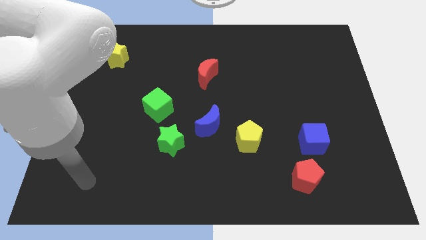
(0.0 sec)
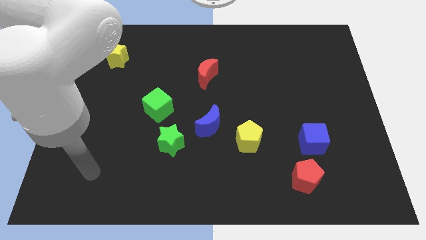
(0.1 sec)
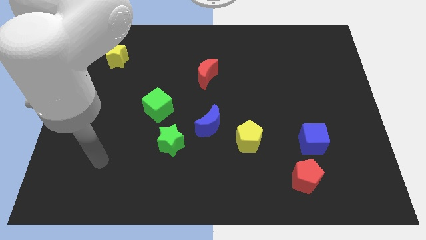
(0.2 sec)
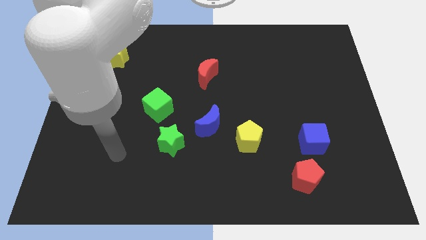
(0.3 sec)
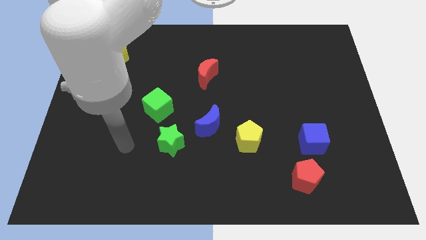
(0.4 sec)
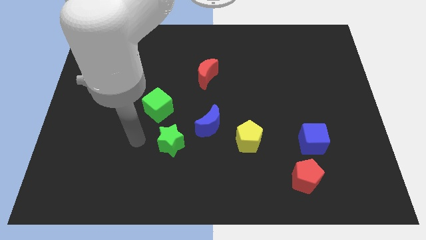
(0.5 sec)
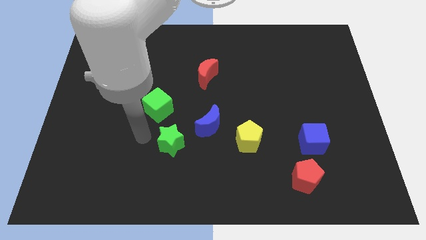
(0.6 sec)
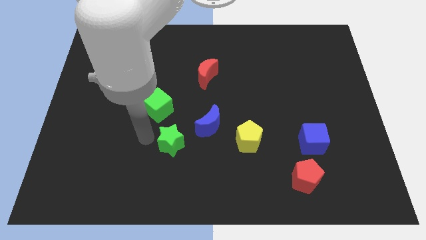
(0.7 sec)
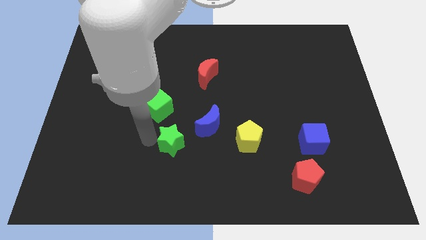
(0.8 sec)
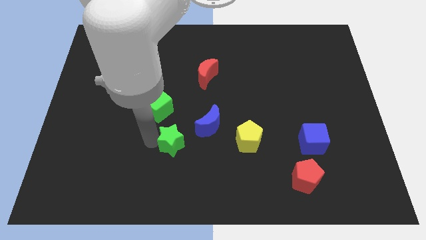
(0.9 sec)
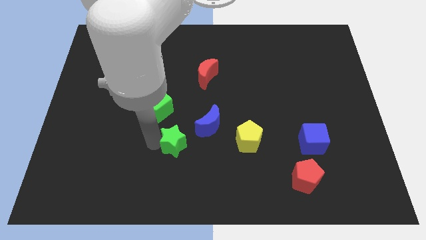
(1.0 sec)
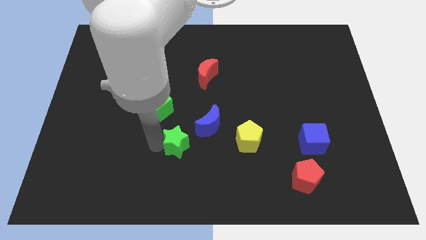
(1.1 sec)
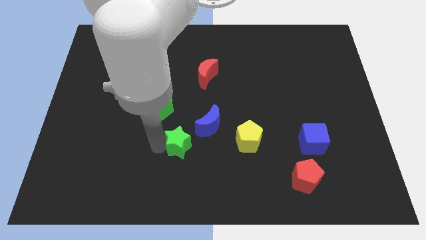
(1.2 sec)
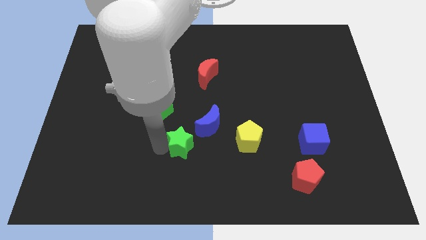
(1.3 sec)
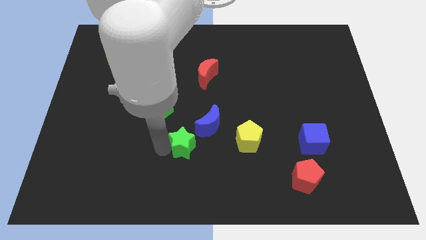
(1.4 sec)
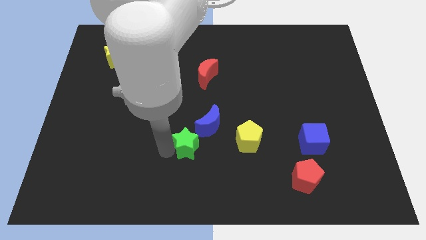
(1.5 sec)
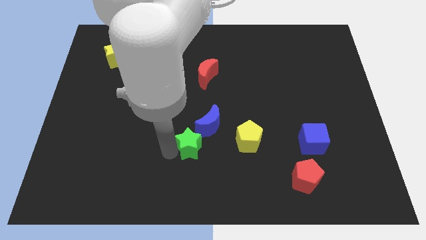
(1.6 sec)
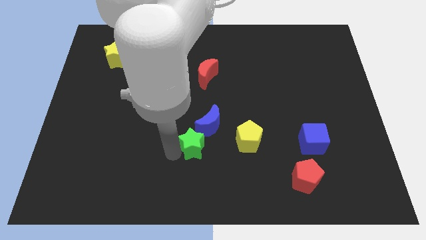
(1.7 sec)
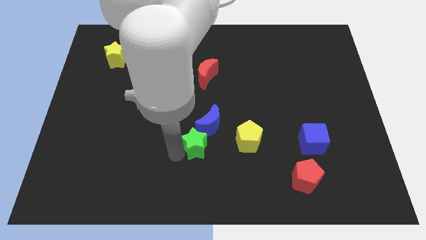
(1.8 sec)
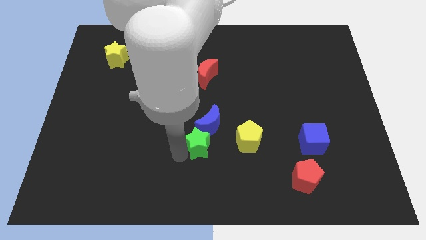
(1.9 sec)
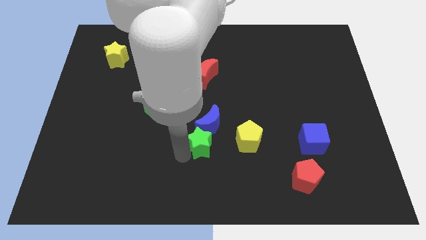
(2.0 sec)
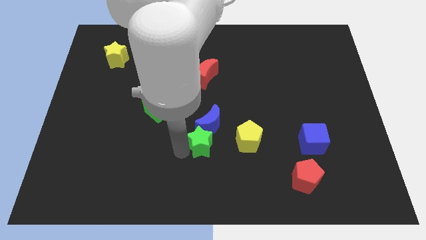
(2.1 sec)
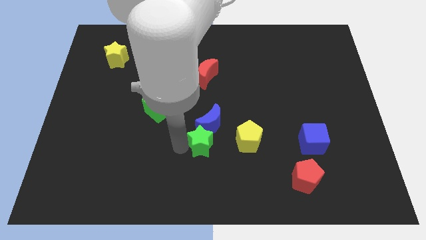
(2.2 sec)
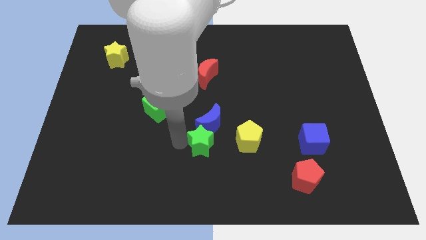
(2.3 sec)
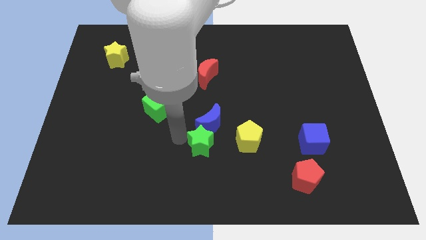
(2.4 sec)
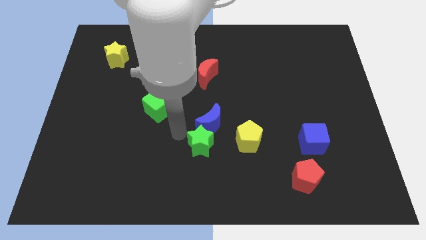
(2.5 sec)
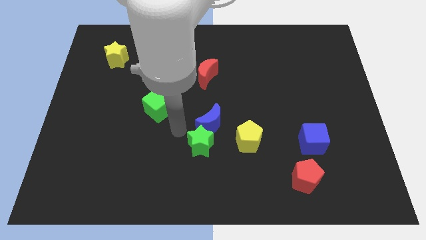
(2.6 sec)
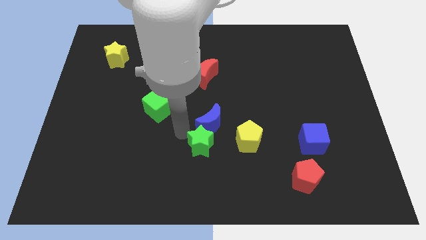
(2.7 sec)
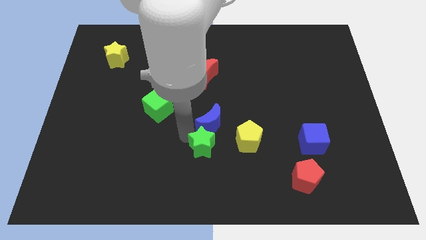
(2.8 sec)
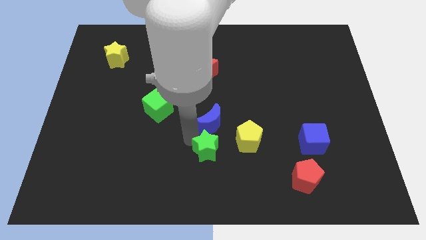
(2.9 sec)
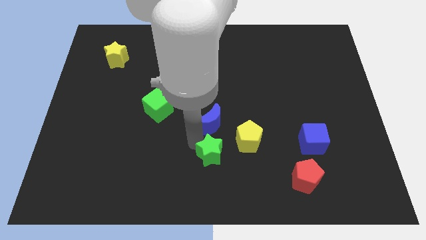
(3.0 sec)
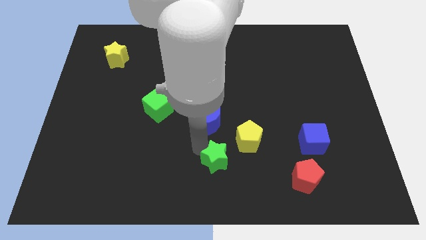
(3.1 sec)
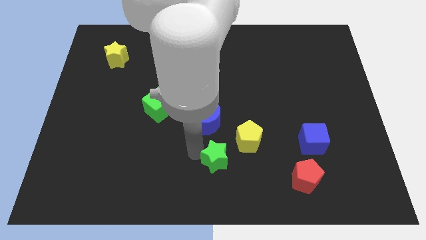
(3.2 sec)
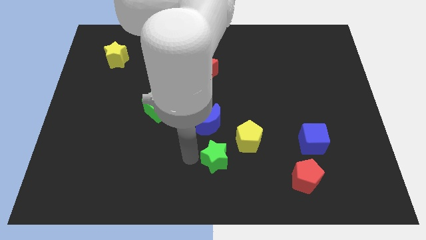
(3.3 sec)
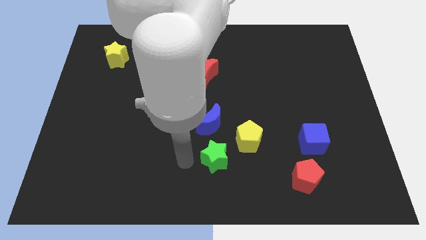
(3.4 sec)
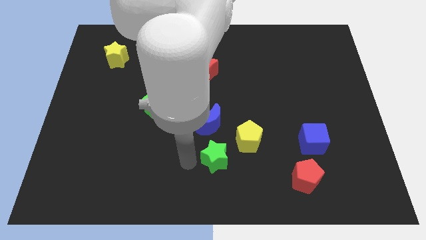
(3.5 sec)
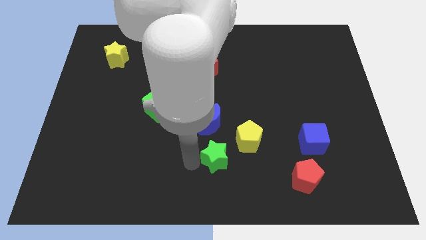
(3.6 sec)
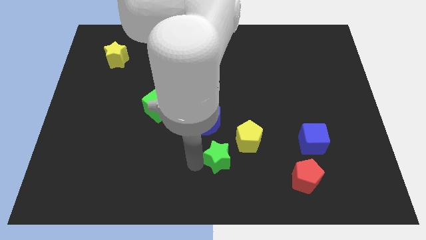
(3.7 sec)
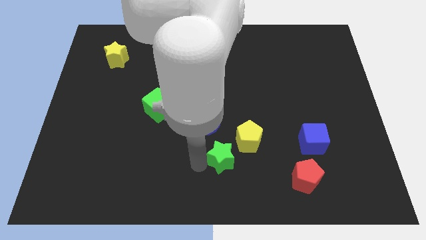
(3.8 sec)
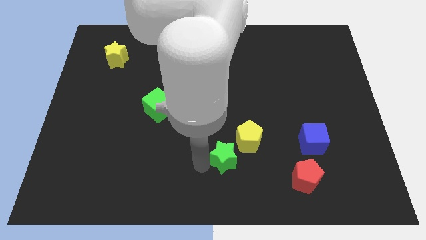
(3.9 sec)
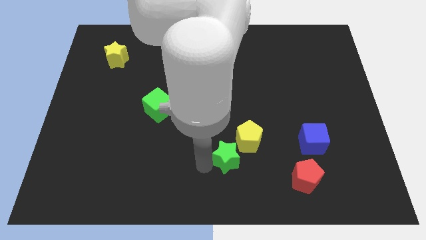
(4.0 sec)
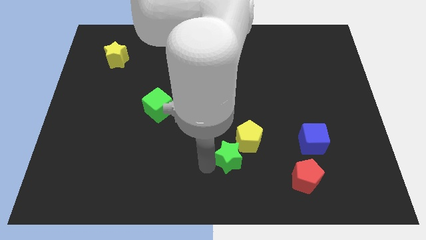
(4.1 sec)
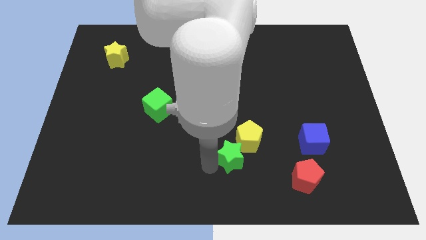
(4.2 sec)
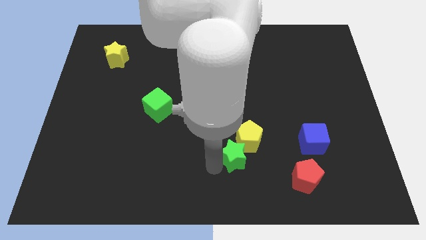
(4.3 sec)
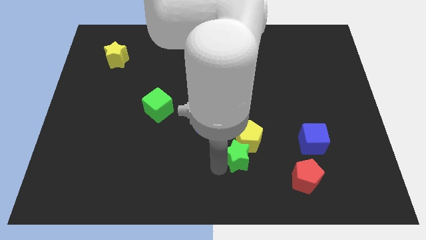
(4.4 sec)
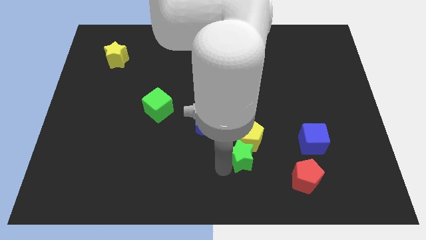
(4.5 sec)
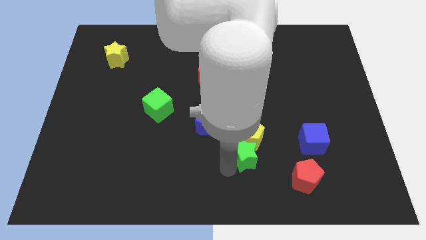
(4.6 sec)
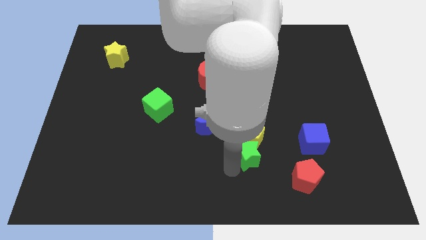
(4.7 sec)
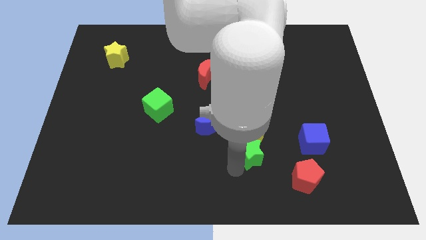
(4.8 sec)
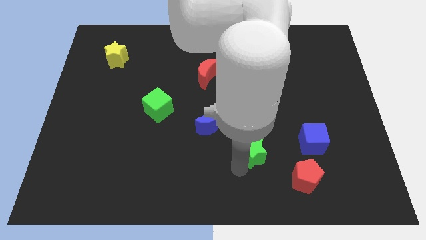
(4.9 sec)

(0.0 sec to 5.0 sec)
slide the green star to the top left of the red pentagon

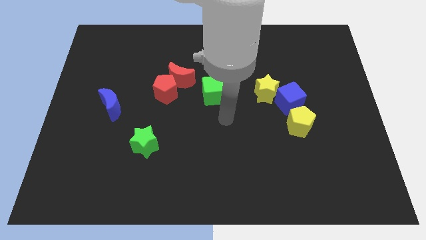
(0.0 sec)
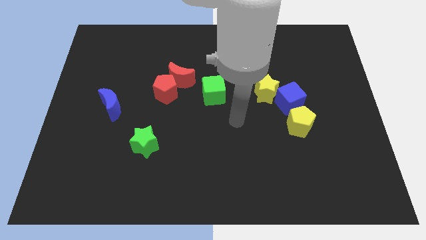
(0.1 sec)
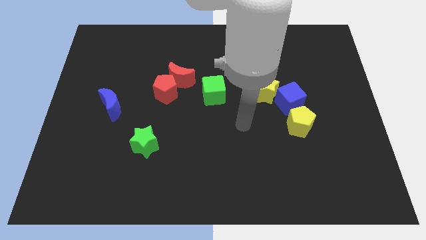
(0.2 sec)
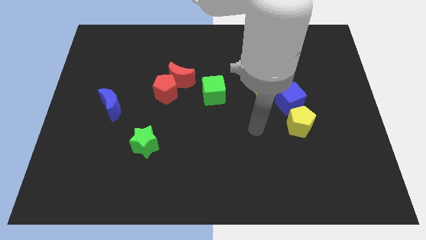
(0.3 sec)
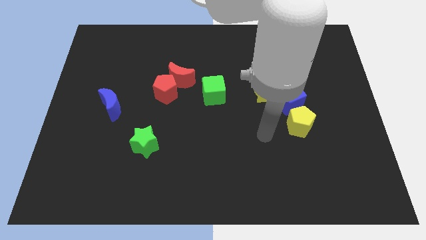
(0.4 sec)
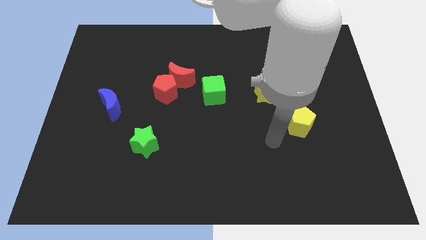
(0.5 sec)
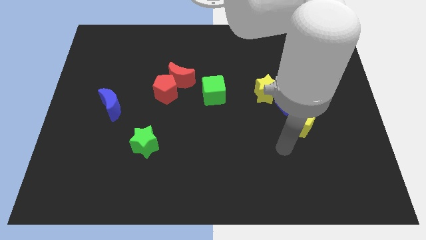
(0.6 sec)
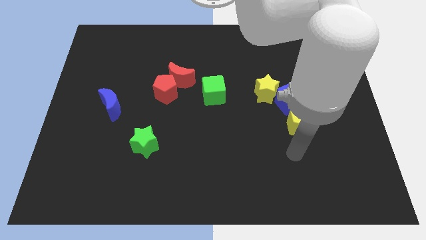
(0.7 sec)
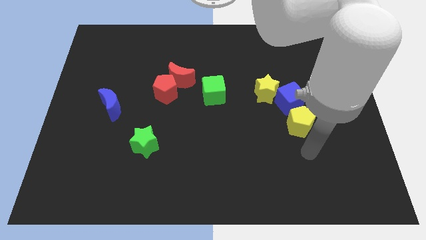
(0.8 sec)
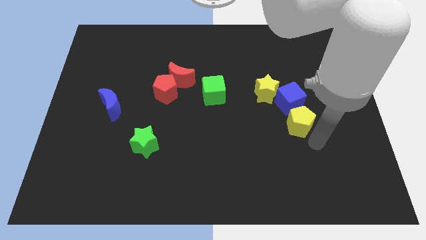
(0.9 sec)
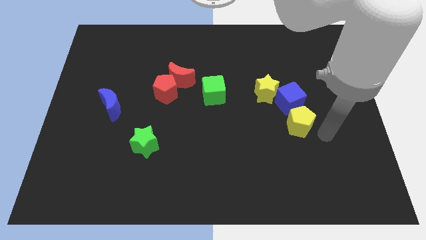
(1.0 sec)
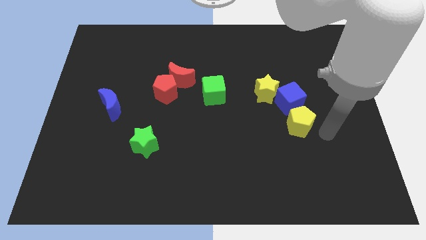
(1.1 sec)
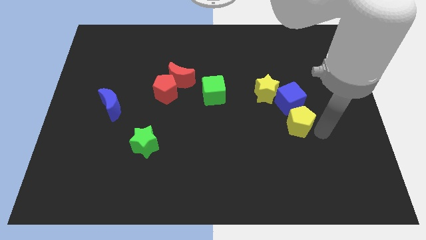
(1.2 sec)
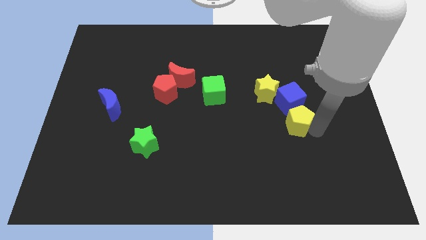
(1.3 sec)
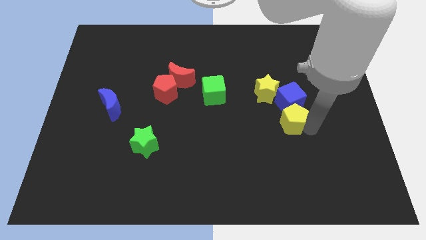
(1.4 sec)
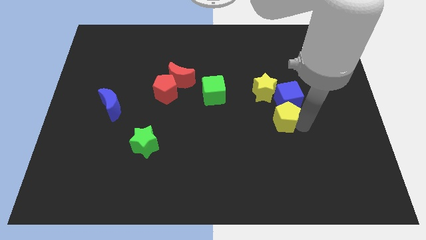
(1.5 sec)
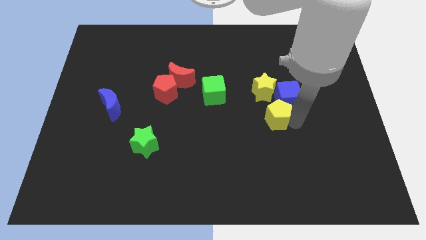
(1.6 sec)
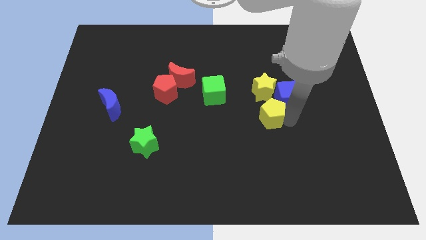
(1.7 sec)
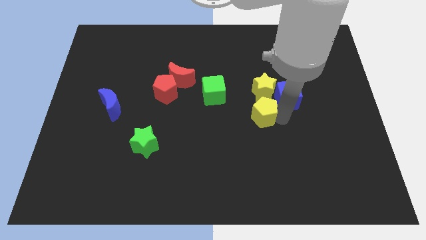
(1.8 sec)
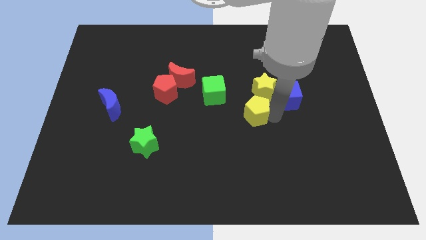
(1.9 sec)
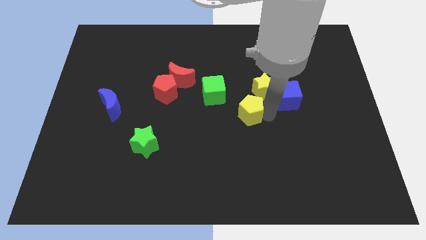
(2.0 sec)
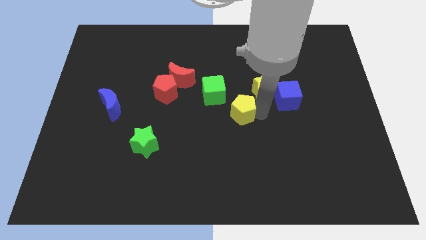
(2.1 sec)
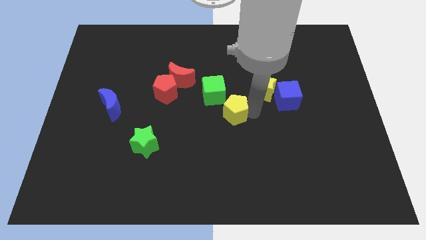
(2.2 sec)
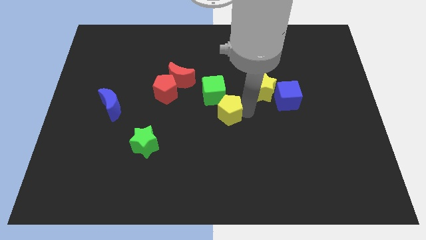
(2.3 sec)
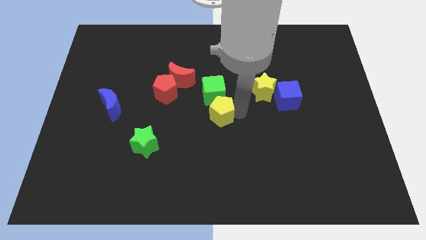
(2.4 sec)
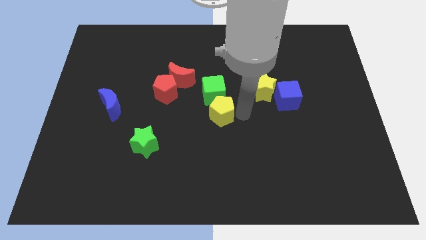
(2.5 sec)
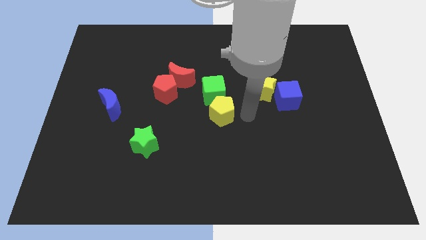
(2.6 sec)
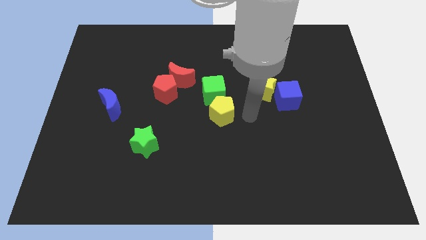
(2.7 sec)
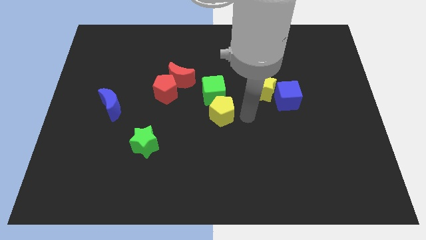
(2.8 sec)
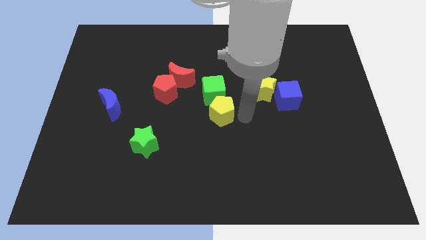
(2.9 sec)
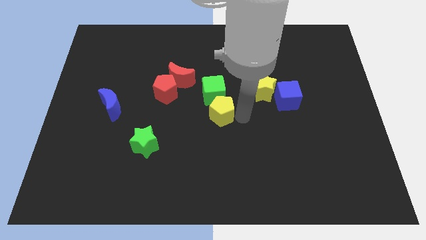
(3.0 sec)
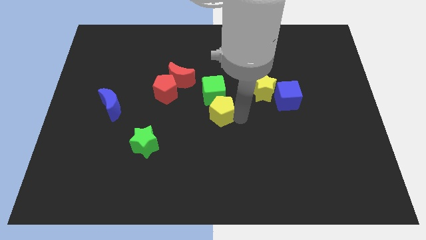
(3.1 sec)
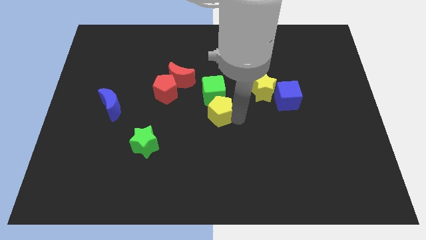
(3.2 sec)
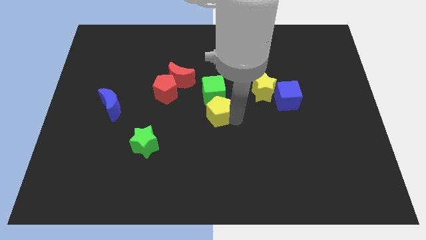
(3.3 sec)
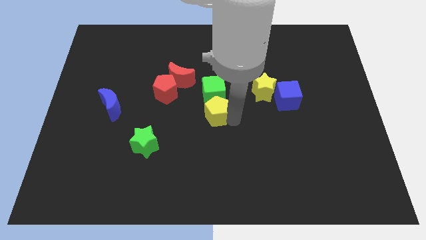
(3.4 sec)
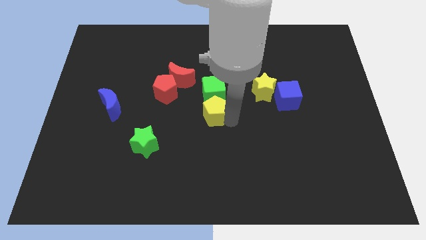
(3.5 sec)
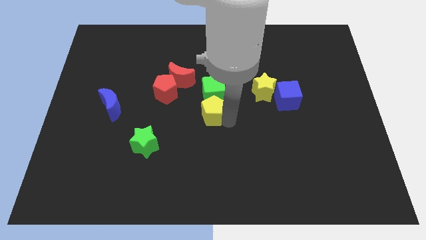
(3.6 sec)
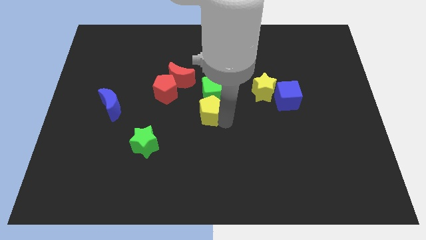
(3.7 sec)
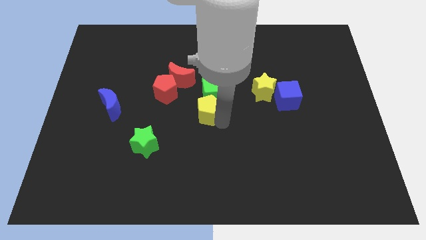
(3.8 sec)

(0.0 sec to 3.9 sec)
put the yellow pentagon to the bottom right of the red pentagon
